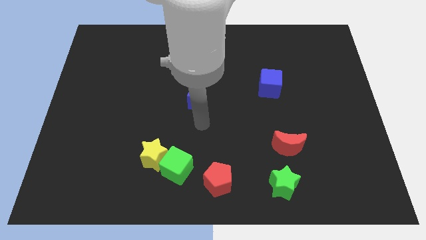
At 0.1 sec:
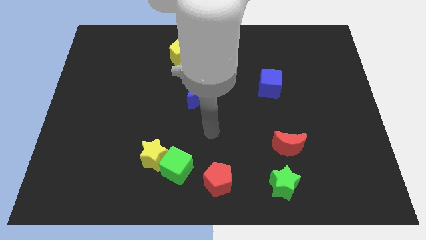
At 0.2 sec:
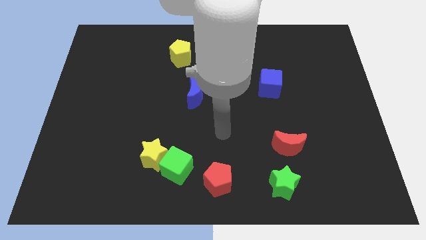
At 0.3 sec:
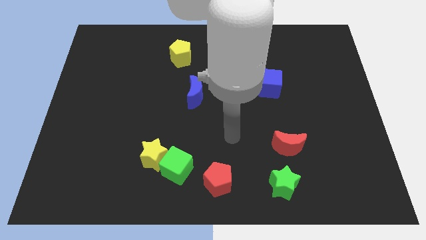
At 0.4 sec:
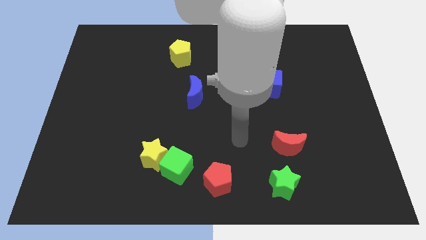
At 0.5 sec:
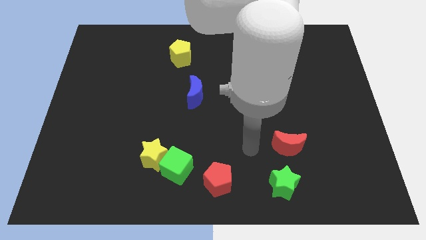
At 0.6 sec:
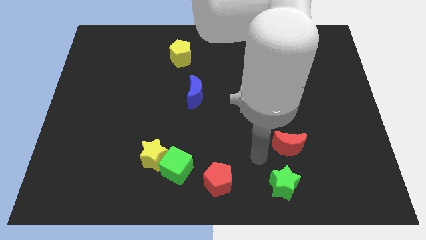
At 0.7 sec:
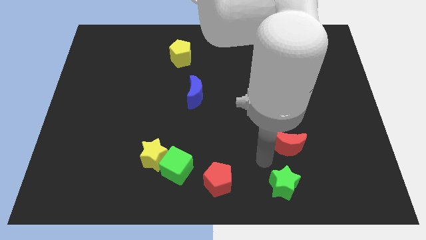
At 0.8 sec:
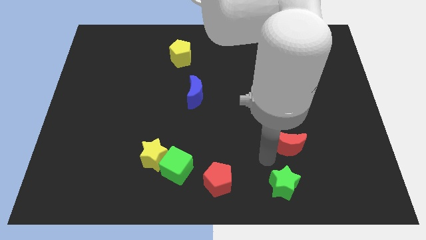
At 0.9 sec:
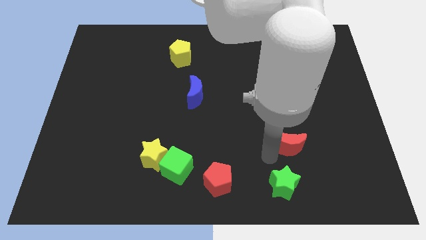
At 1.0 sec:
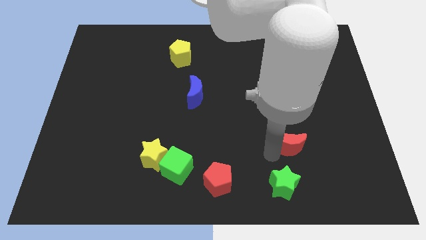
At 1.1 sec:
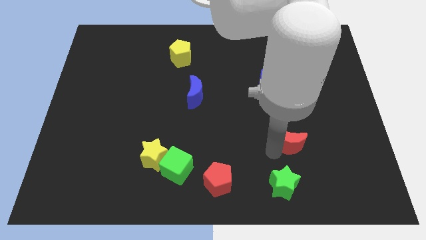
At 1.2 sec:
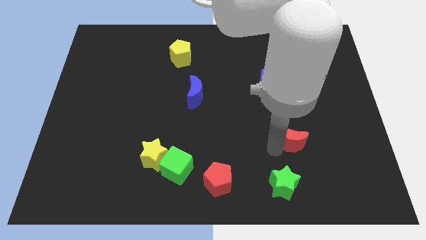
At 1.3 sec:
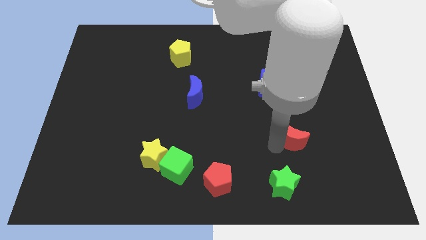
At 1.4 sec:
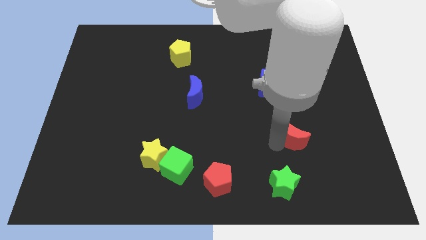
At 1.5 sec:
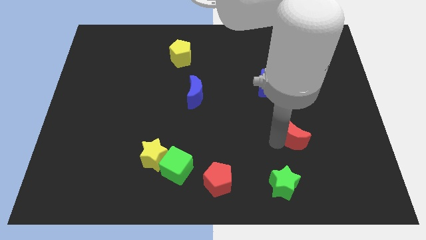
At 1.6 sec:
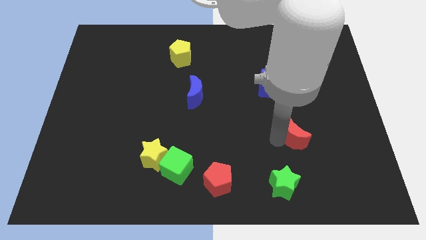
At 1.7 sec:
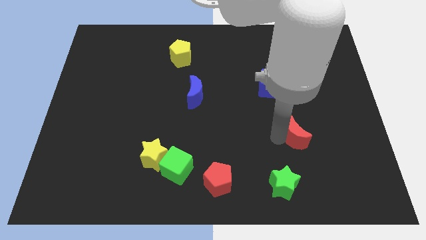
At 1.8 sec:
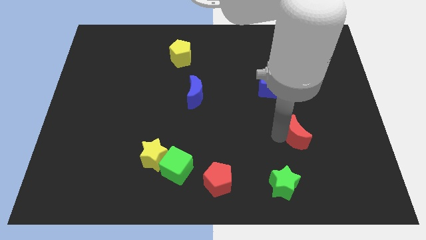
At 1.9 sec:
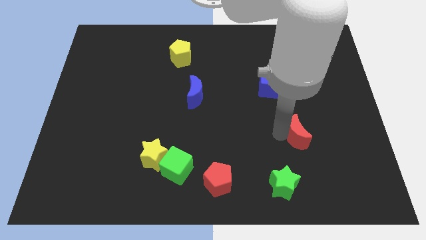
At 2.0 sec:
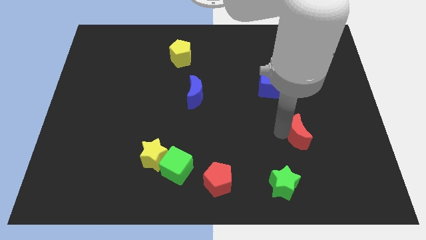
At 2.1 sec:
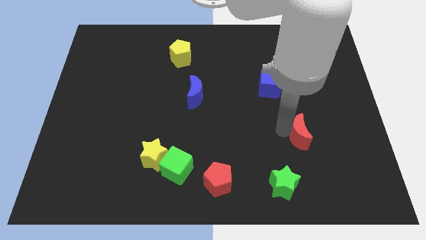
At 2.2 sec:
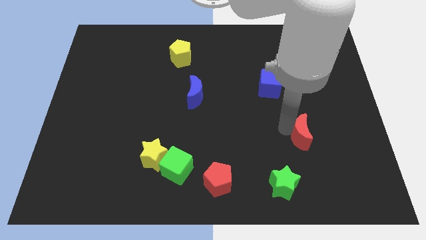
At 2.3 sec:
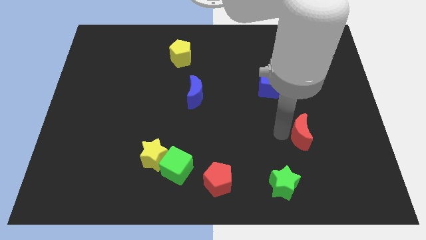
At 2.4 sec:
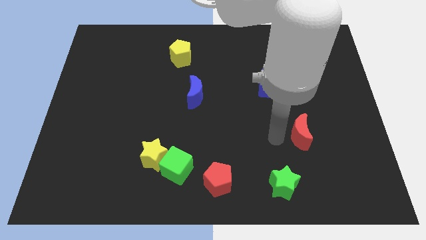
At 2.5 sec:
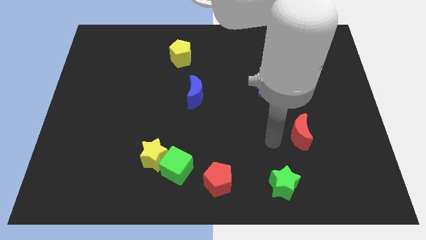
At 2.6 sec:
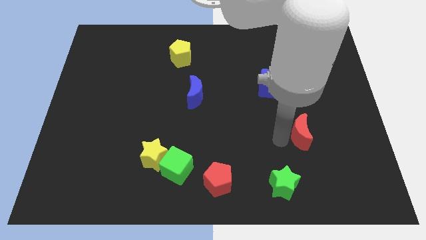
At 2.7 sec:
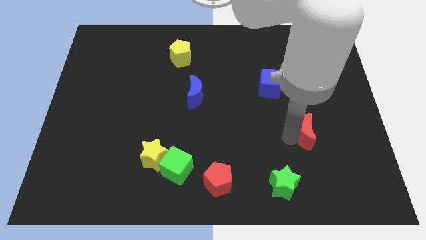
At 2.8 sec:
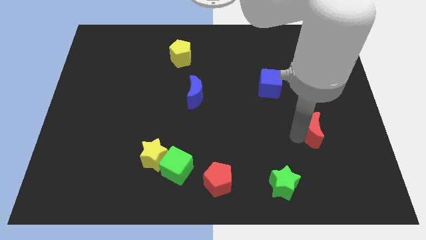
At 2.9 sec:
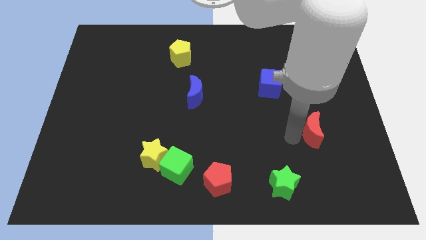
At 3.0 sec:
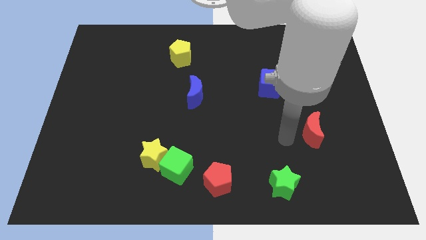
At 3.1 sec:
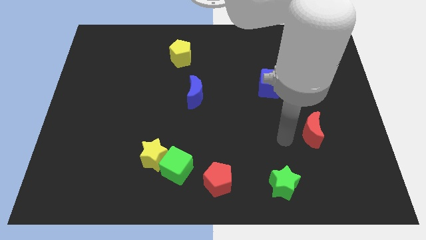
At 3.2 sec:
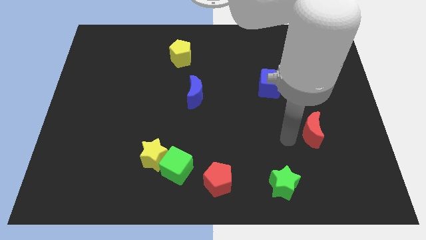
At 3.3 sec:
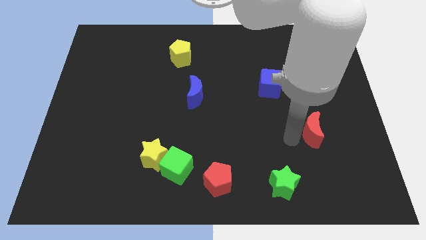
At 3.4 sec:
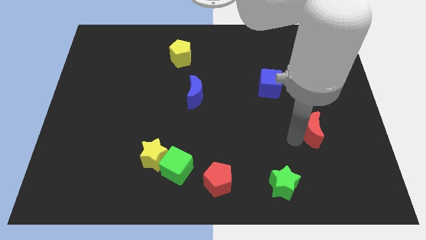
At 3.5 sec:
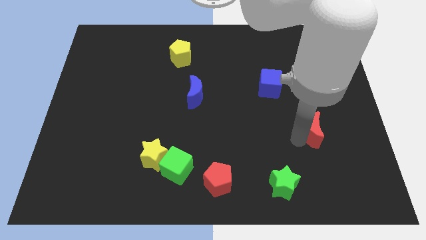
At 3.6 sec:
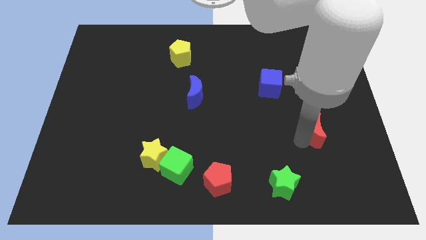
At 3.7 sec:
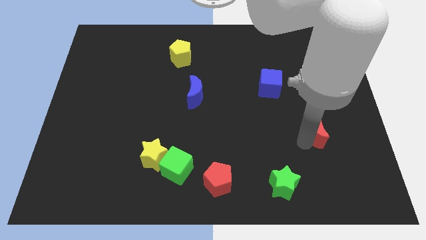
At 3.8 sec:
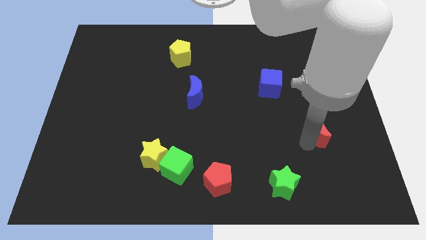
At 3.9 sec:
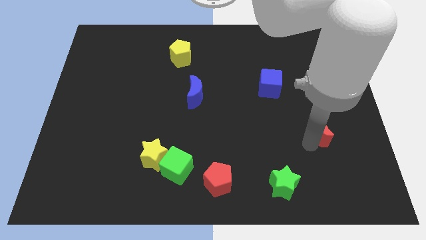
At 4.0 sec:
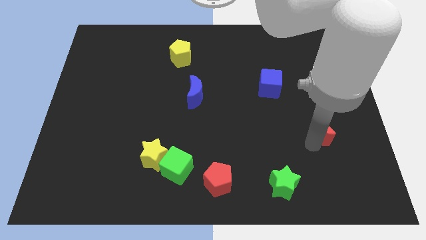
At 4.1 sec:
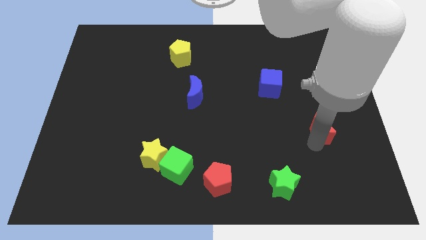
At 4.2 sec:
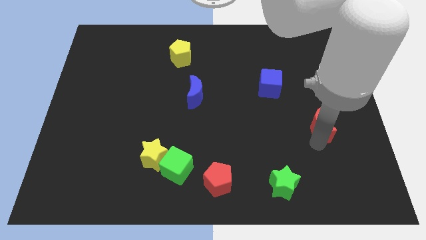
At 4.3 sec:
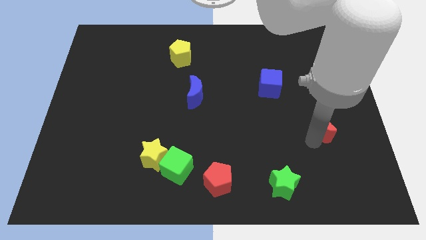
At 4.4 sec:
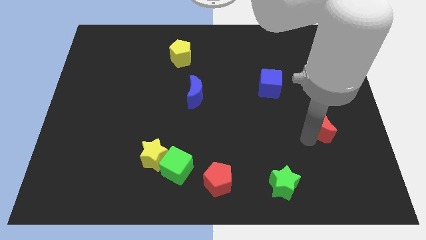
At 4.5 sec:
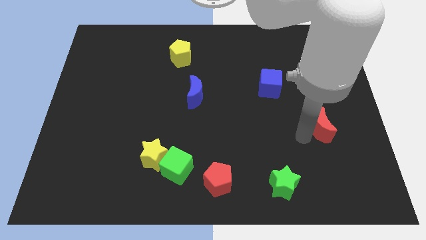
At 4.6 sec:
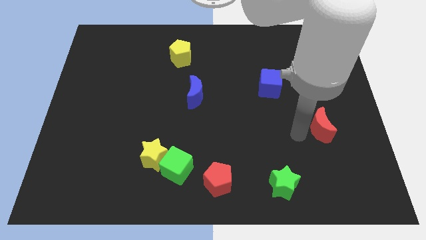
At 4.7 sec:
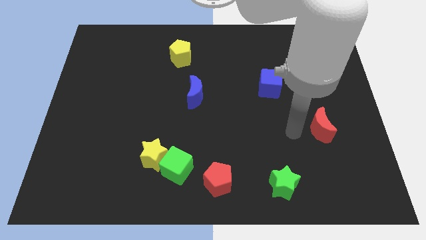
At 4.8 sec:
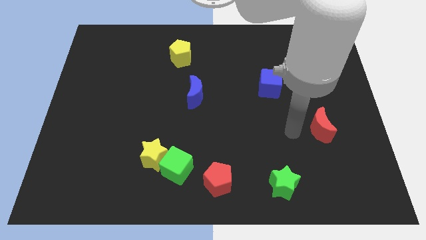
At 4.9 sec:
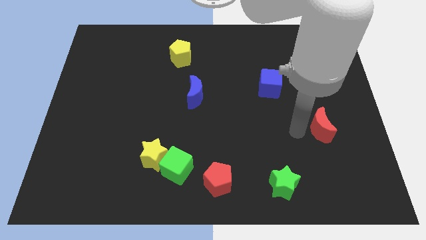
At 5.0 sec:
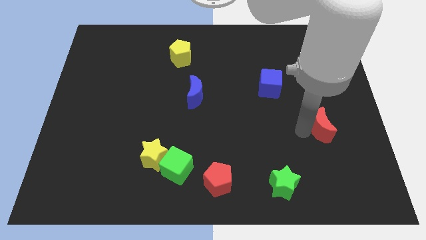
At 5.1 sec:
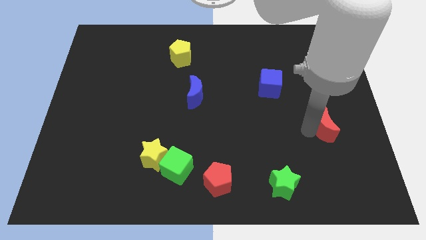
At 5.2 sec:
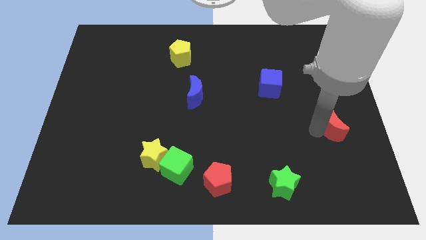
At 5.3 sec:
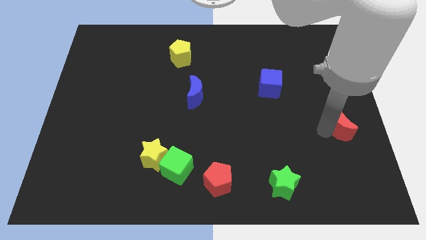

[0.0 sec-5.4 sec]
push the red moon to the right side
